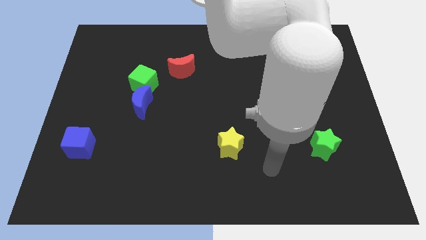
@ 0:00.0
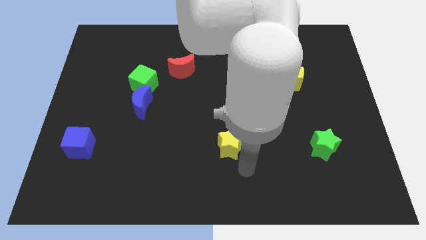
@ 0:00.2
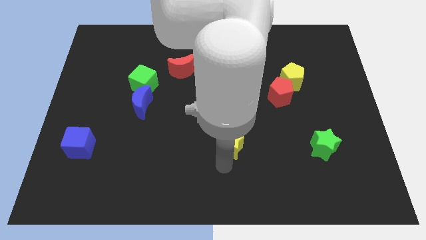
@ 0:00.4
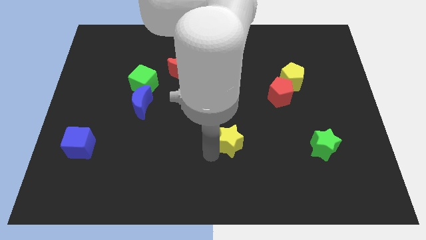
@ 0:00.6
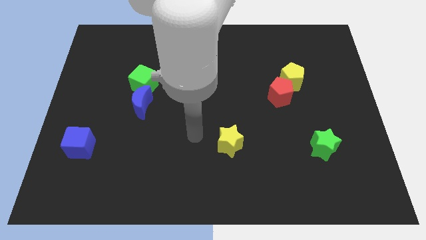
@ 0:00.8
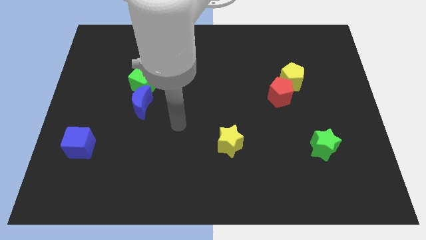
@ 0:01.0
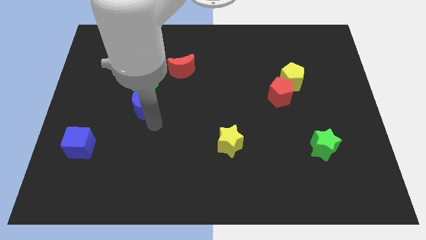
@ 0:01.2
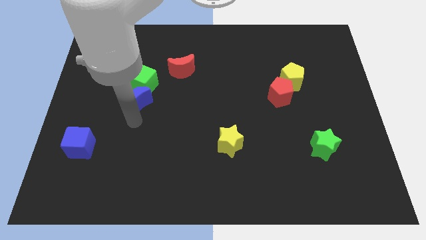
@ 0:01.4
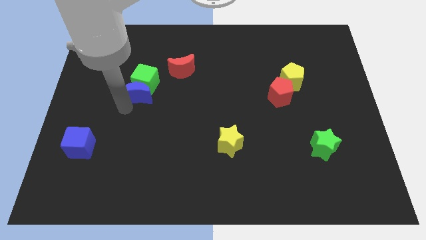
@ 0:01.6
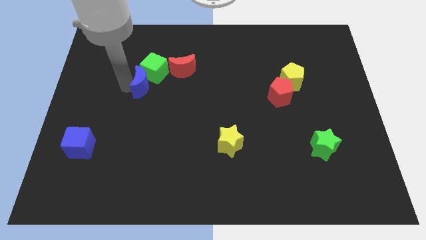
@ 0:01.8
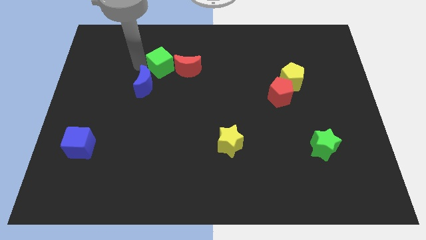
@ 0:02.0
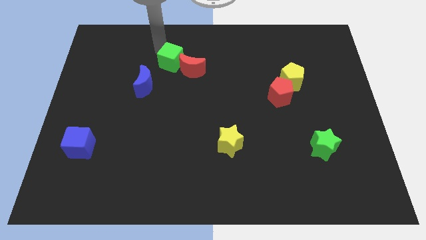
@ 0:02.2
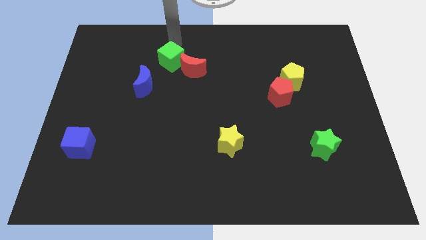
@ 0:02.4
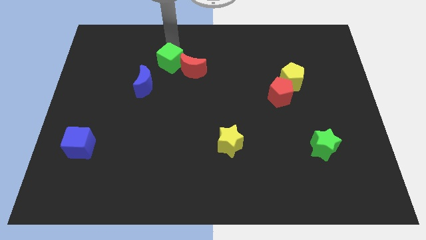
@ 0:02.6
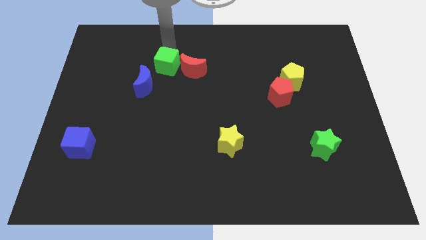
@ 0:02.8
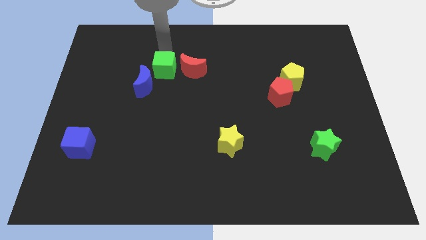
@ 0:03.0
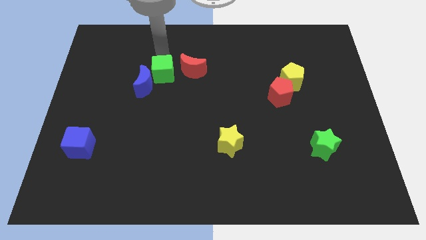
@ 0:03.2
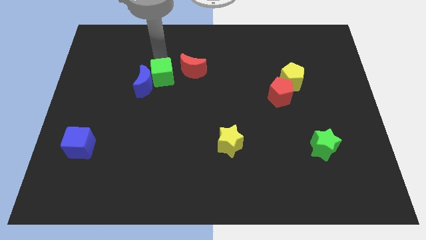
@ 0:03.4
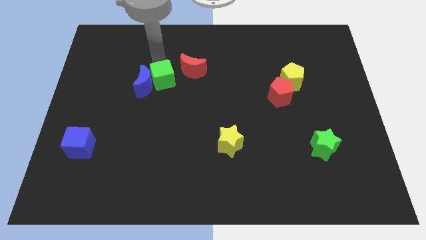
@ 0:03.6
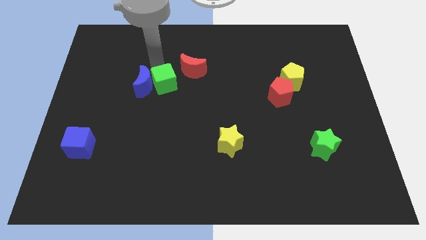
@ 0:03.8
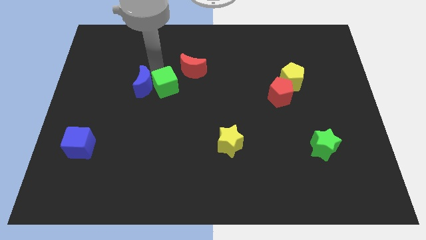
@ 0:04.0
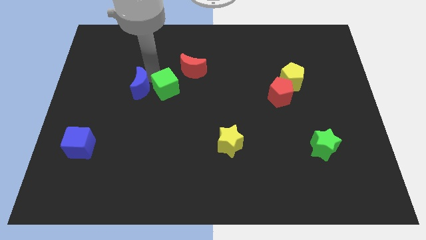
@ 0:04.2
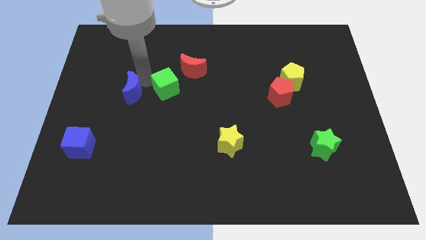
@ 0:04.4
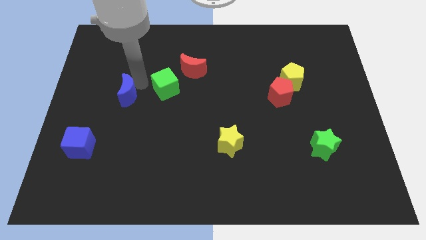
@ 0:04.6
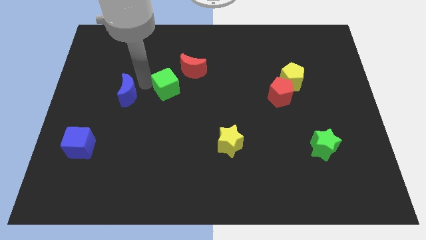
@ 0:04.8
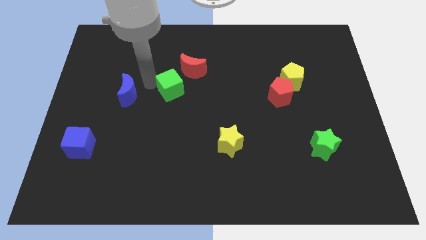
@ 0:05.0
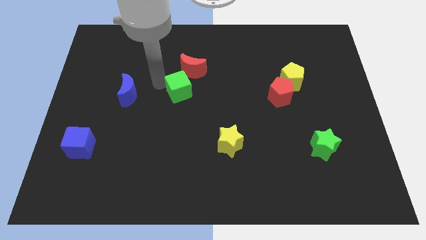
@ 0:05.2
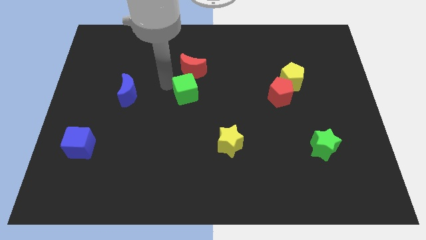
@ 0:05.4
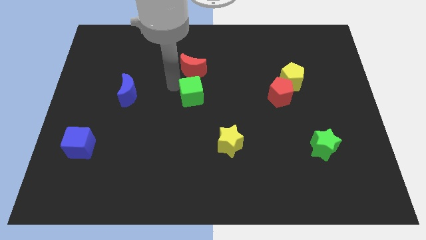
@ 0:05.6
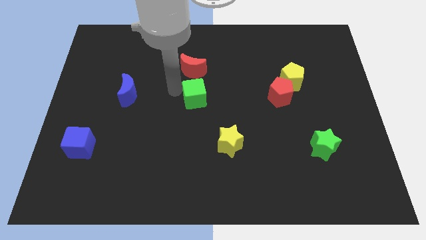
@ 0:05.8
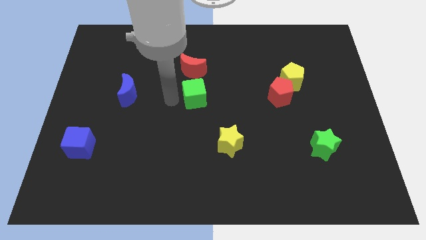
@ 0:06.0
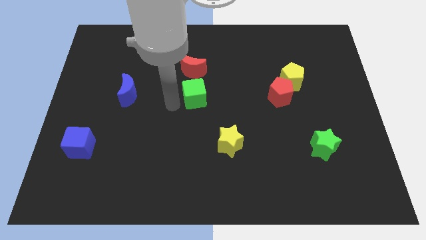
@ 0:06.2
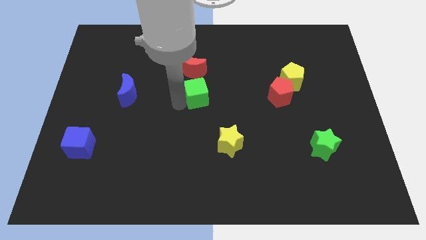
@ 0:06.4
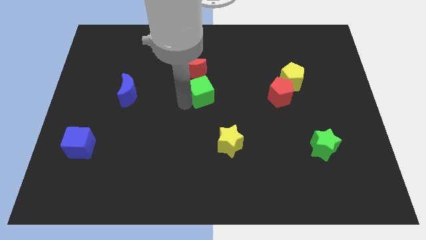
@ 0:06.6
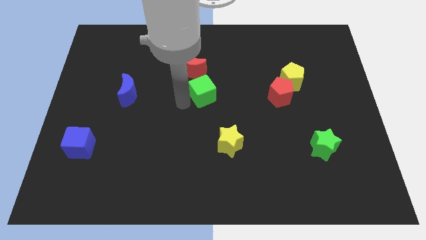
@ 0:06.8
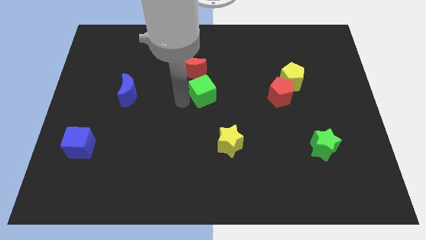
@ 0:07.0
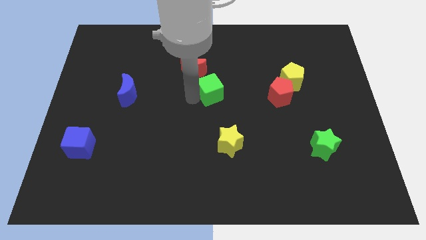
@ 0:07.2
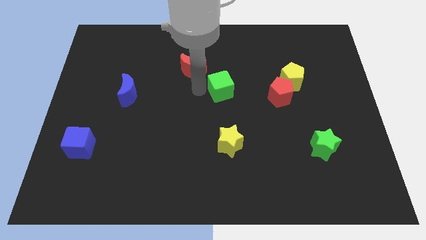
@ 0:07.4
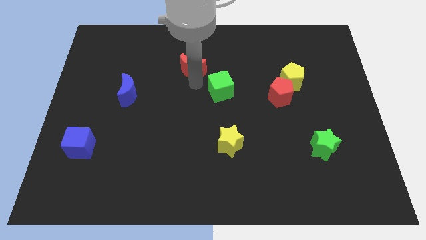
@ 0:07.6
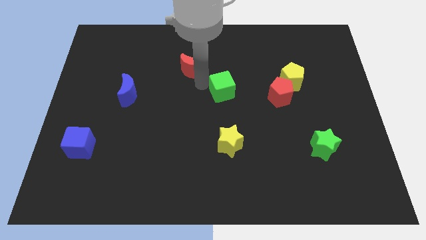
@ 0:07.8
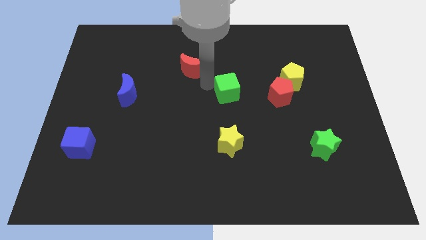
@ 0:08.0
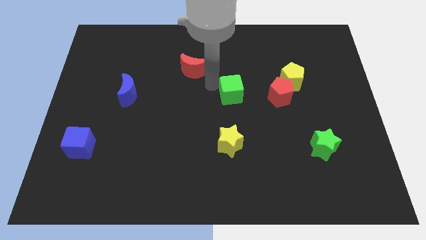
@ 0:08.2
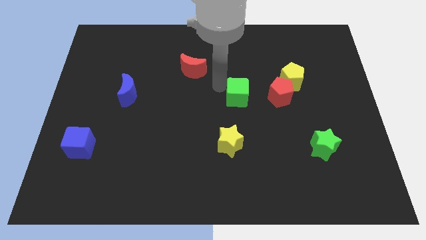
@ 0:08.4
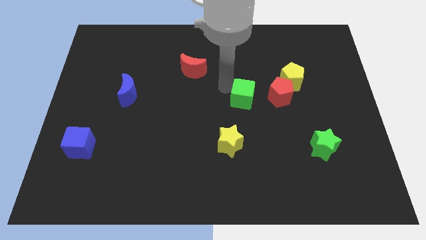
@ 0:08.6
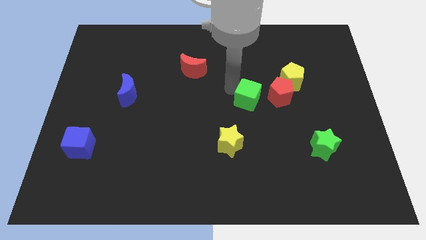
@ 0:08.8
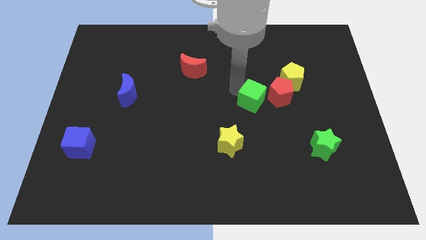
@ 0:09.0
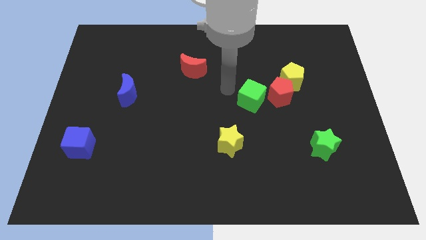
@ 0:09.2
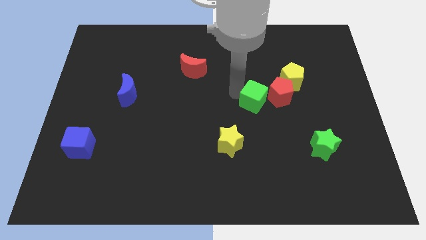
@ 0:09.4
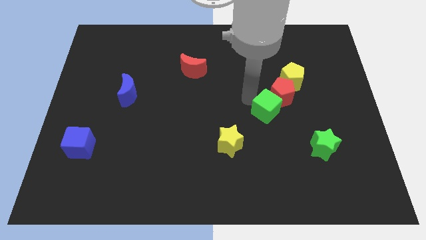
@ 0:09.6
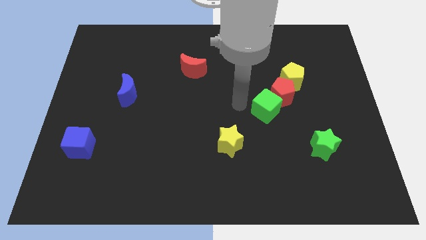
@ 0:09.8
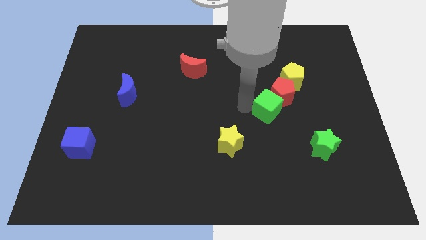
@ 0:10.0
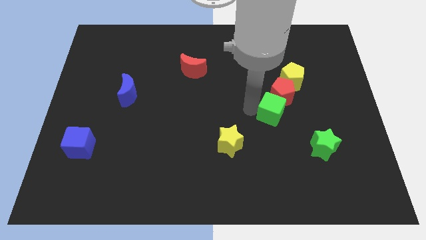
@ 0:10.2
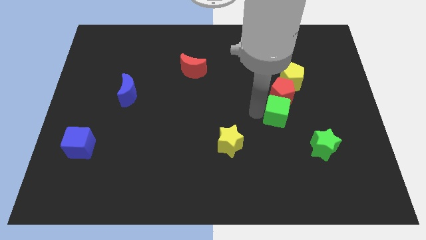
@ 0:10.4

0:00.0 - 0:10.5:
move the green cube to the bottom of the yellow pentagon

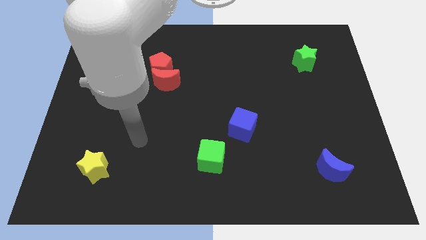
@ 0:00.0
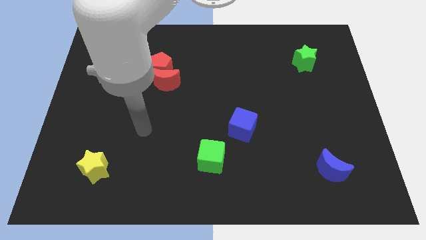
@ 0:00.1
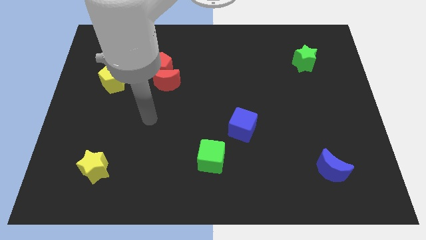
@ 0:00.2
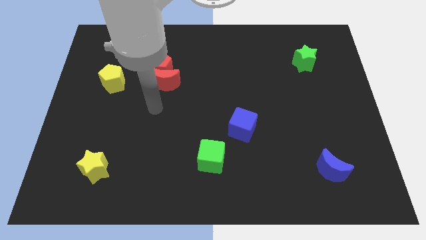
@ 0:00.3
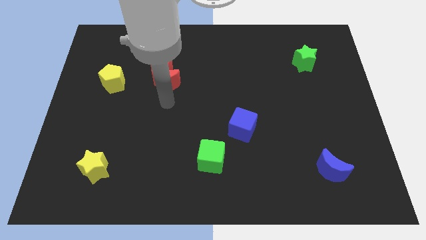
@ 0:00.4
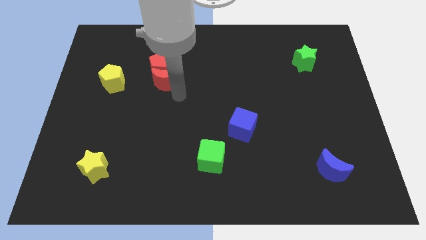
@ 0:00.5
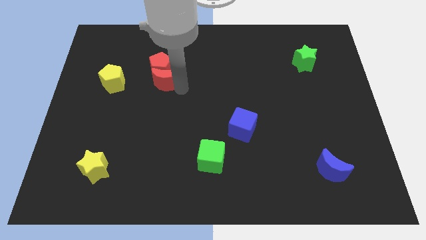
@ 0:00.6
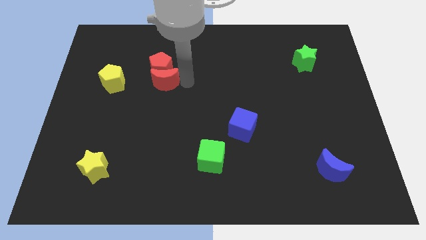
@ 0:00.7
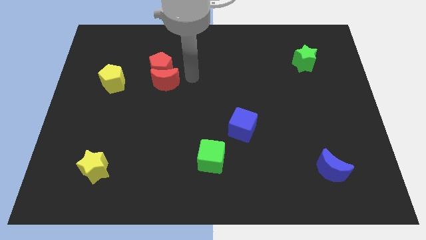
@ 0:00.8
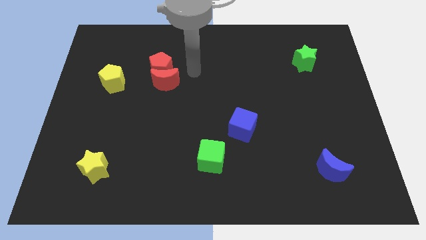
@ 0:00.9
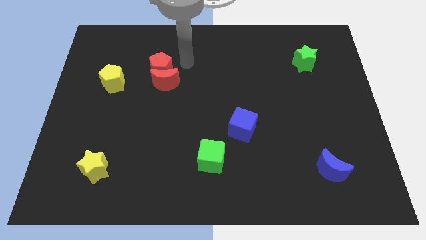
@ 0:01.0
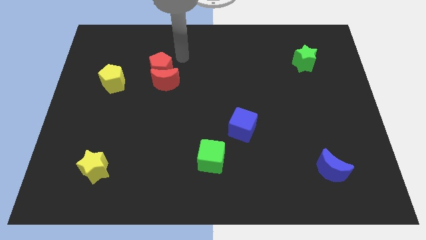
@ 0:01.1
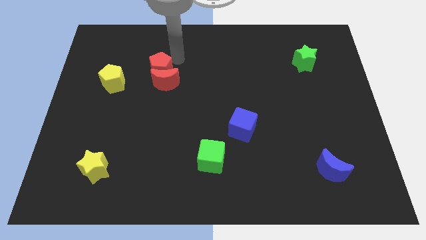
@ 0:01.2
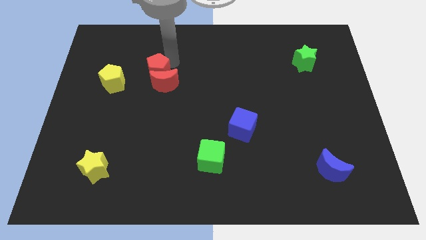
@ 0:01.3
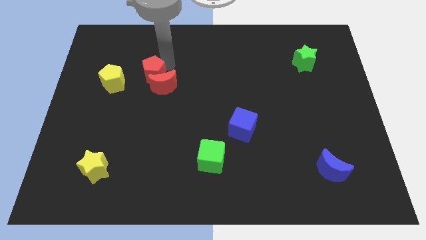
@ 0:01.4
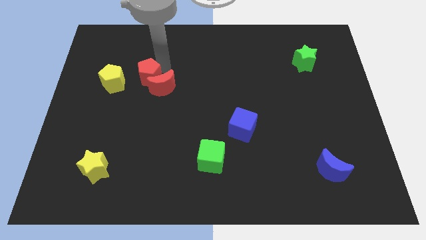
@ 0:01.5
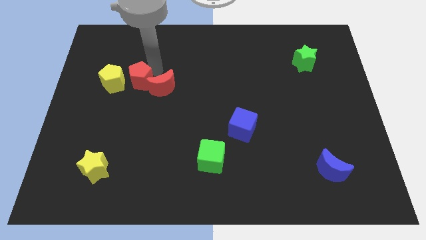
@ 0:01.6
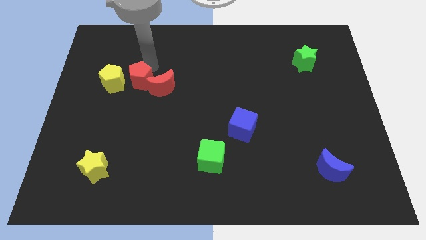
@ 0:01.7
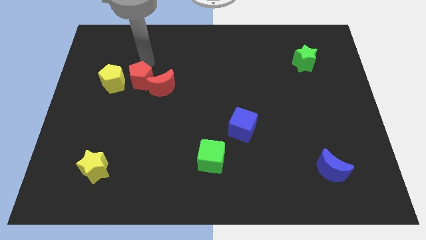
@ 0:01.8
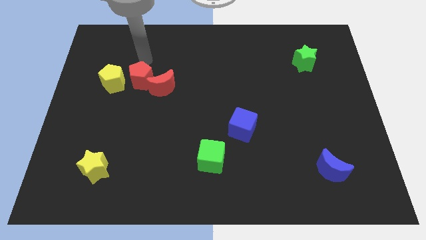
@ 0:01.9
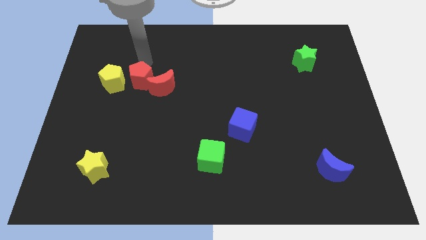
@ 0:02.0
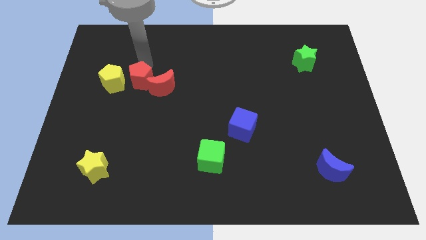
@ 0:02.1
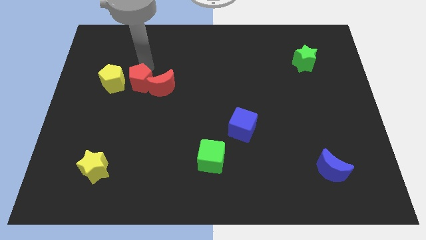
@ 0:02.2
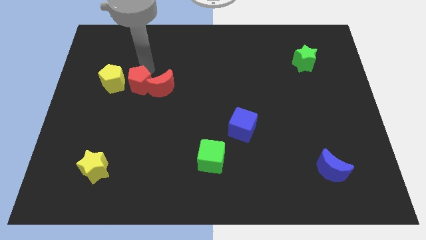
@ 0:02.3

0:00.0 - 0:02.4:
put the red pentagon to the bottom left side of the red moon
